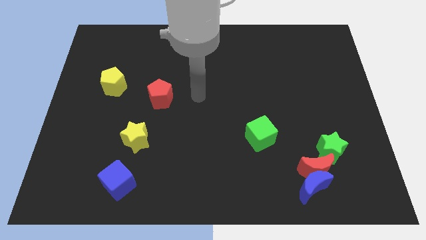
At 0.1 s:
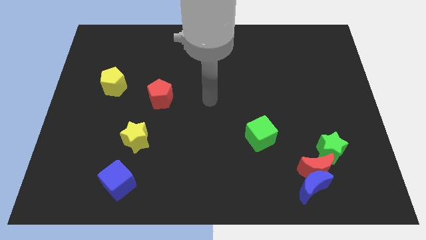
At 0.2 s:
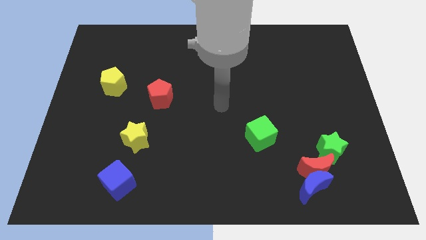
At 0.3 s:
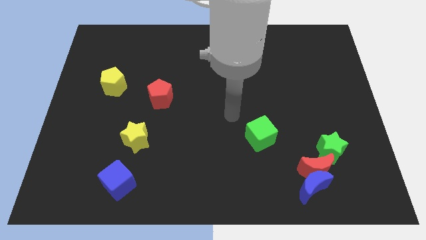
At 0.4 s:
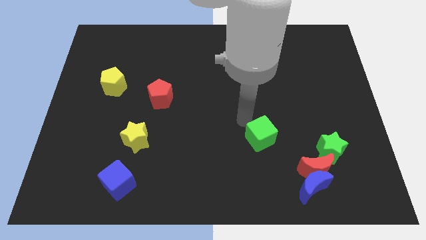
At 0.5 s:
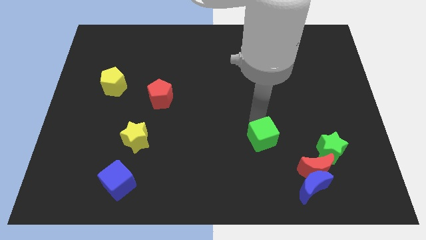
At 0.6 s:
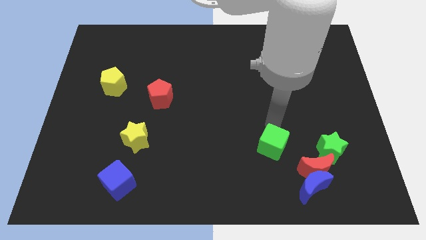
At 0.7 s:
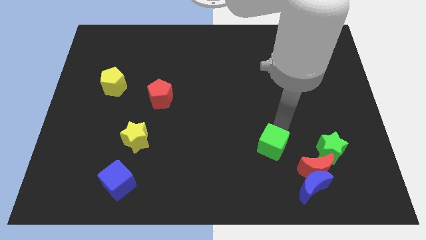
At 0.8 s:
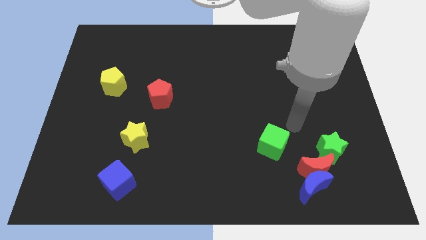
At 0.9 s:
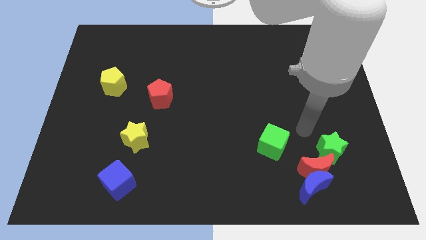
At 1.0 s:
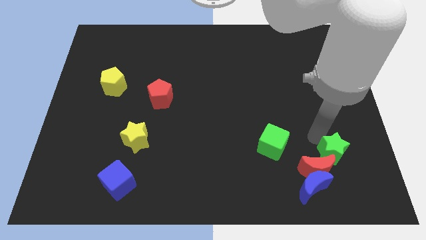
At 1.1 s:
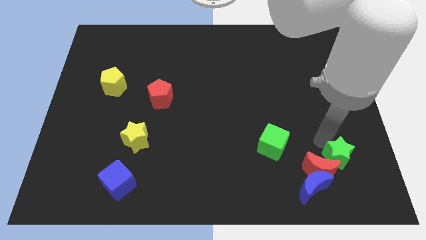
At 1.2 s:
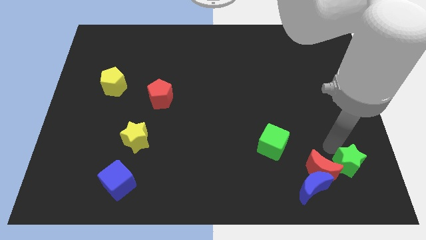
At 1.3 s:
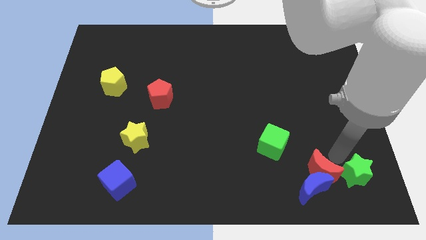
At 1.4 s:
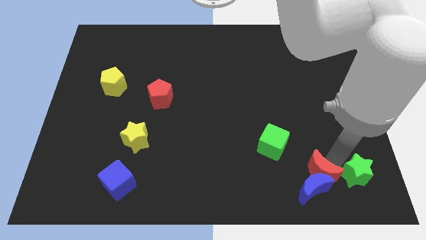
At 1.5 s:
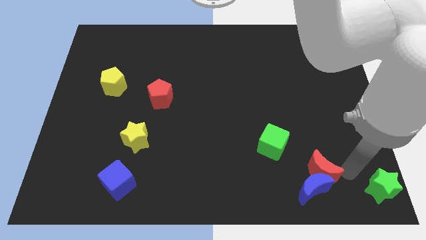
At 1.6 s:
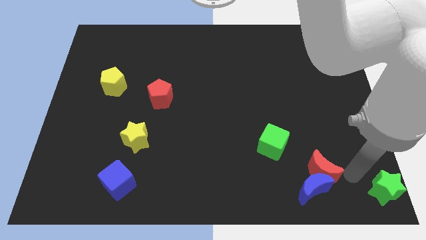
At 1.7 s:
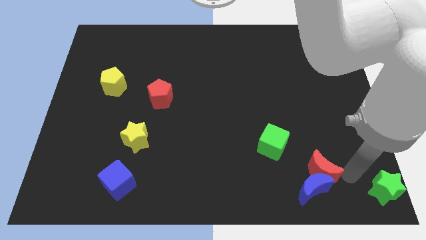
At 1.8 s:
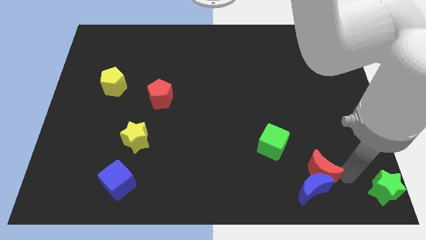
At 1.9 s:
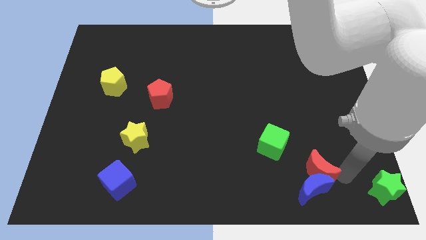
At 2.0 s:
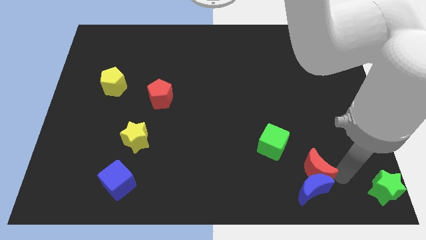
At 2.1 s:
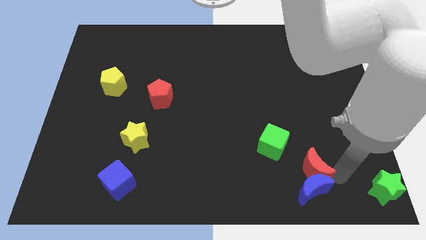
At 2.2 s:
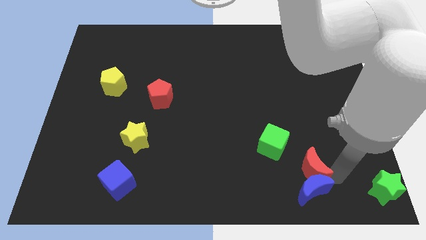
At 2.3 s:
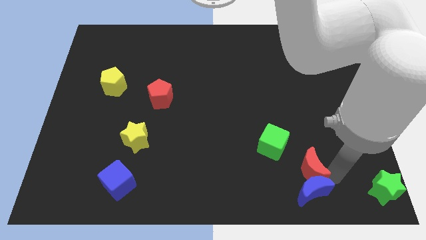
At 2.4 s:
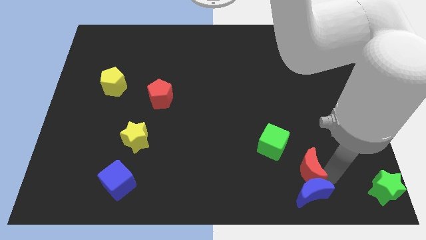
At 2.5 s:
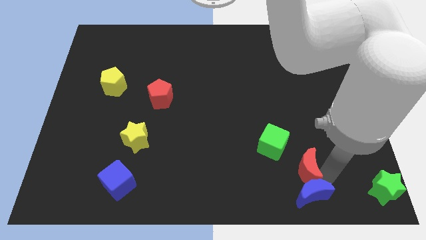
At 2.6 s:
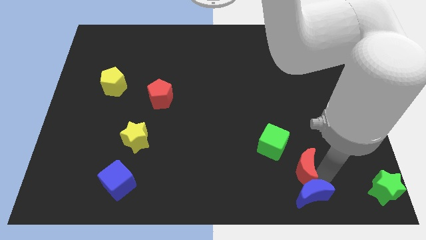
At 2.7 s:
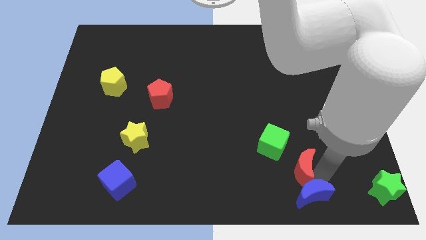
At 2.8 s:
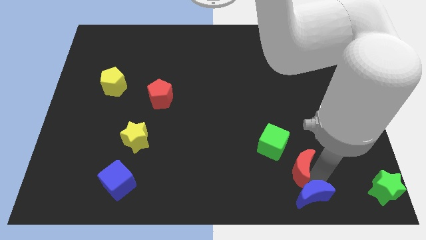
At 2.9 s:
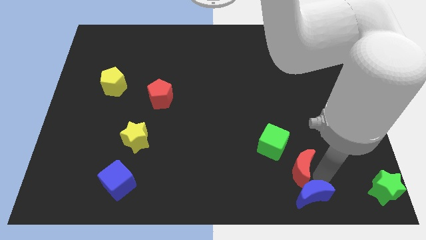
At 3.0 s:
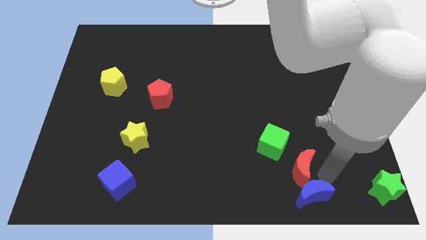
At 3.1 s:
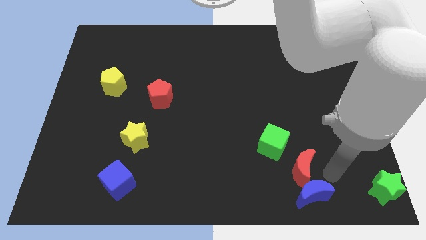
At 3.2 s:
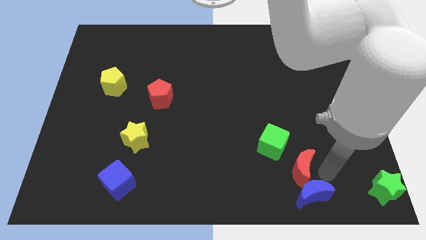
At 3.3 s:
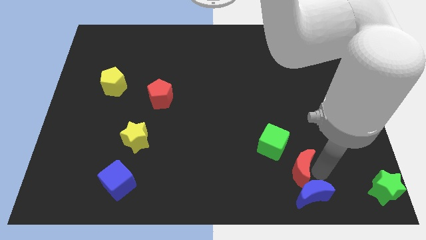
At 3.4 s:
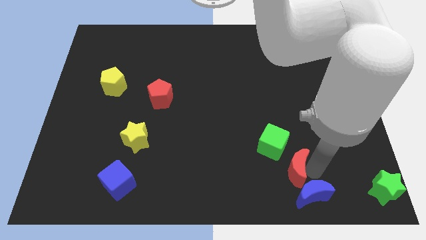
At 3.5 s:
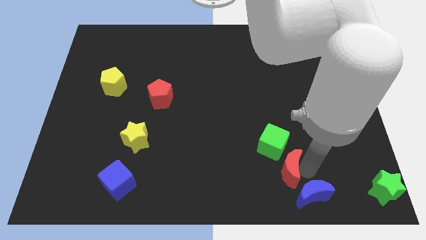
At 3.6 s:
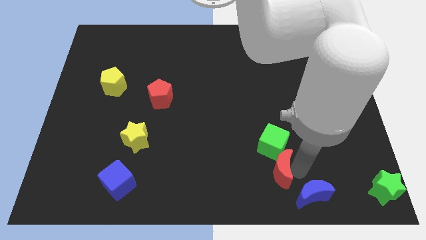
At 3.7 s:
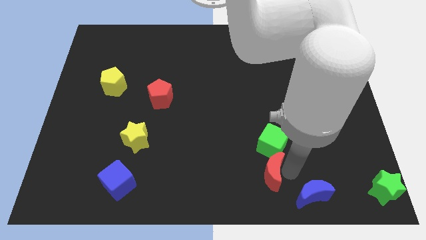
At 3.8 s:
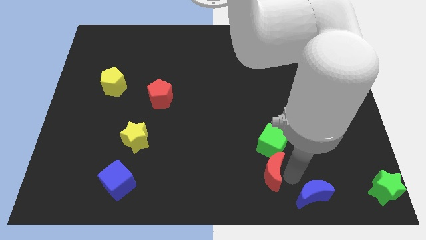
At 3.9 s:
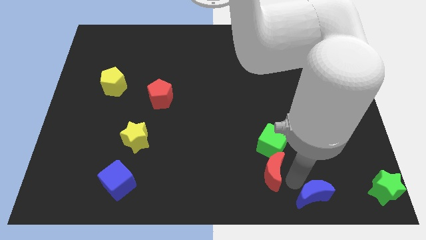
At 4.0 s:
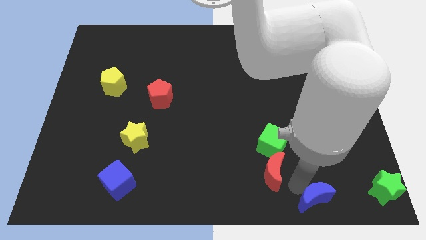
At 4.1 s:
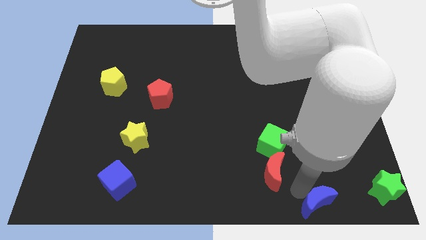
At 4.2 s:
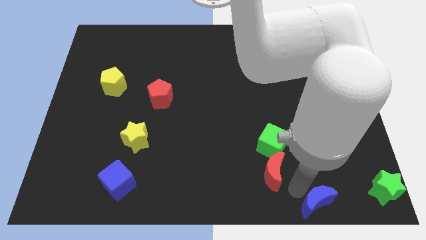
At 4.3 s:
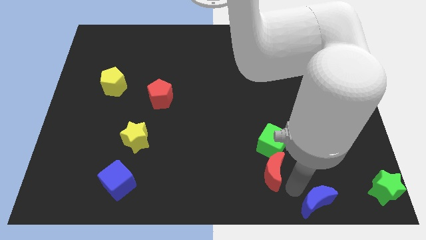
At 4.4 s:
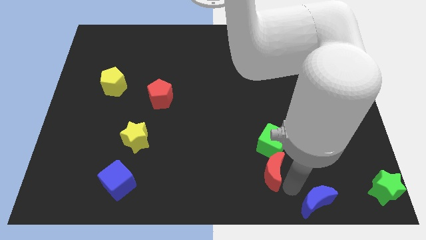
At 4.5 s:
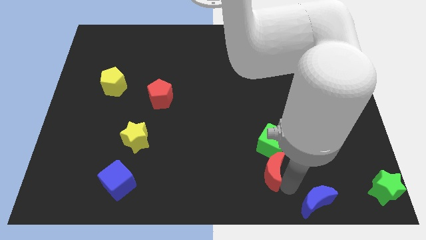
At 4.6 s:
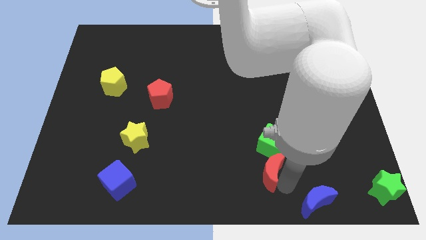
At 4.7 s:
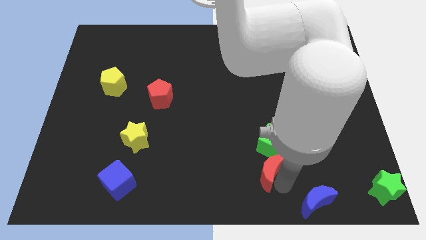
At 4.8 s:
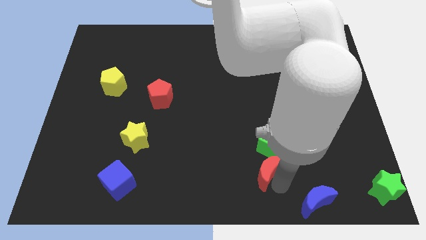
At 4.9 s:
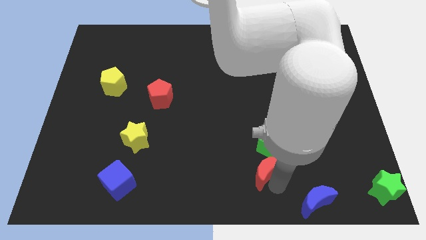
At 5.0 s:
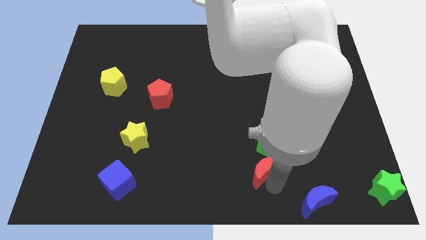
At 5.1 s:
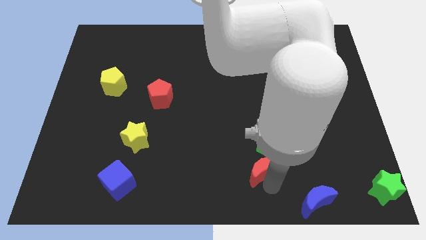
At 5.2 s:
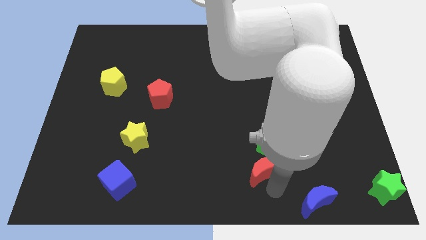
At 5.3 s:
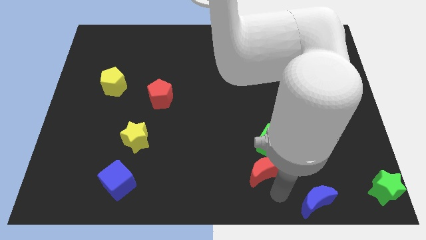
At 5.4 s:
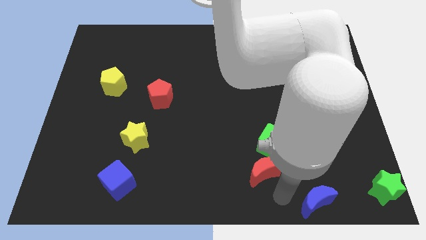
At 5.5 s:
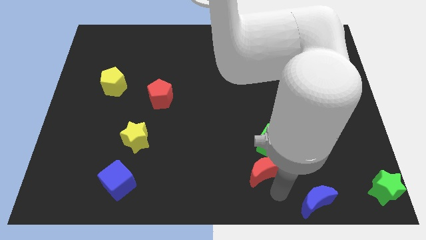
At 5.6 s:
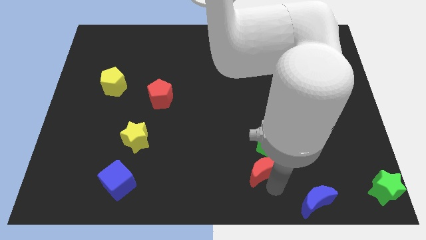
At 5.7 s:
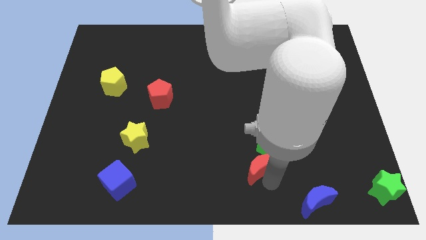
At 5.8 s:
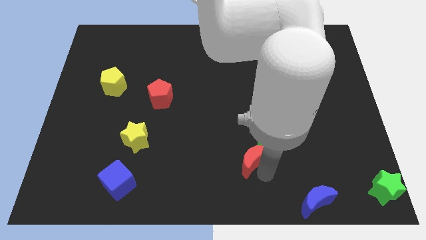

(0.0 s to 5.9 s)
push the red moon just left of the green cube
